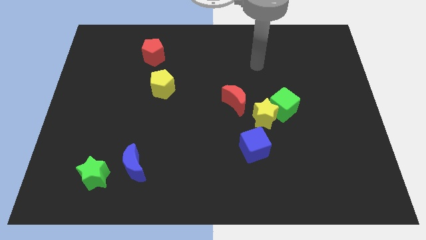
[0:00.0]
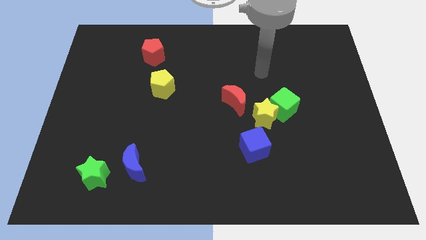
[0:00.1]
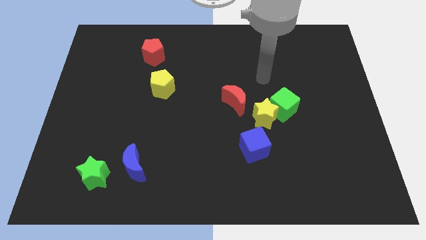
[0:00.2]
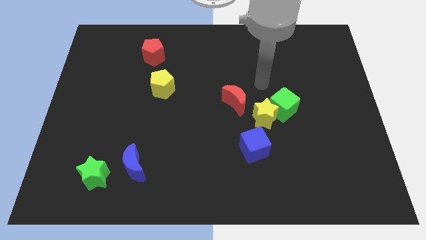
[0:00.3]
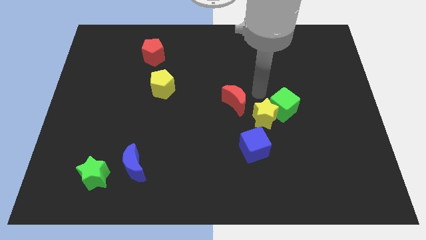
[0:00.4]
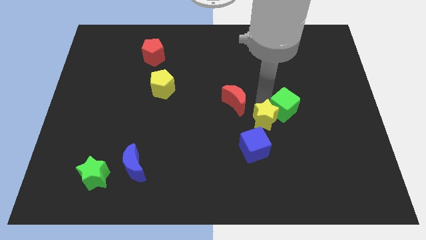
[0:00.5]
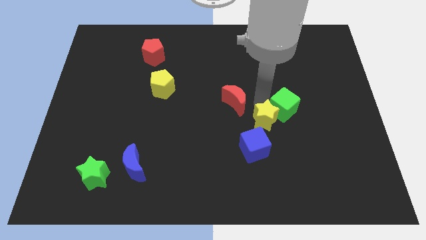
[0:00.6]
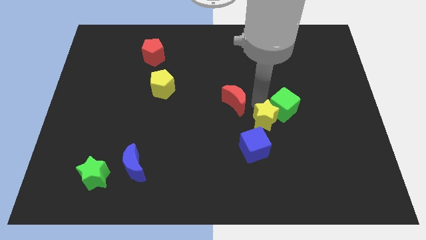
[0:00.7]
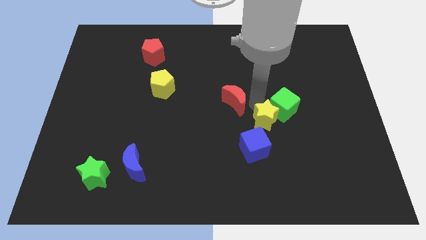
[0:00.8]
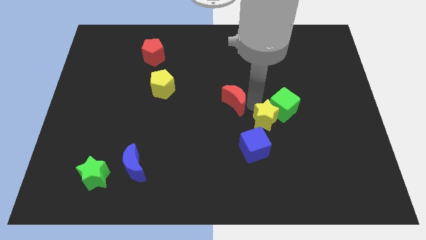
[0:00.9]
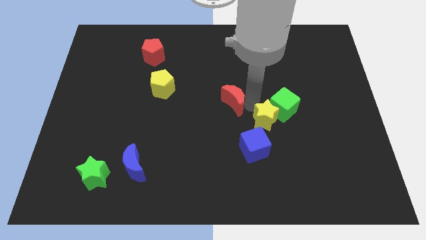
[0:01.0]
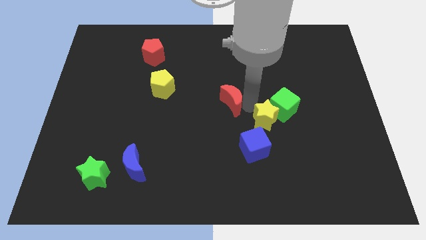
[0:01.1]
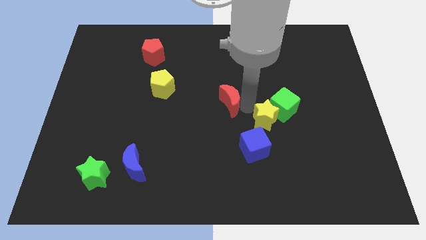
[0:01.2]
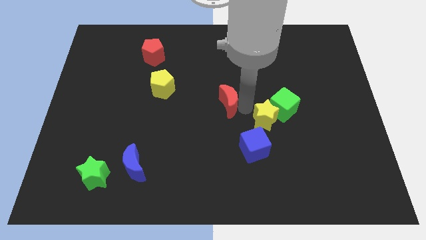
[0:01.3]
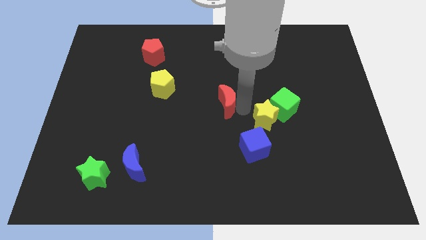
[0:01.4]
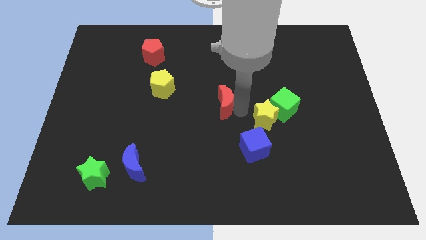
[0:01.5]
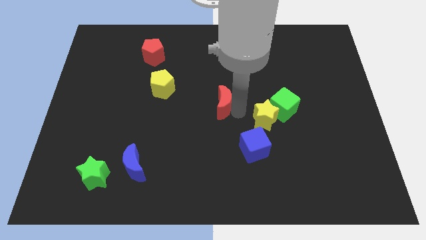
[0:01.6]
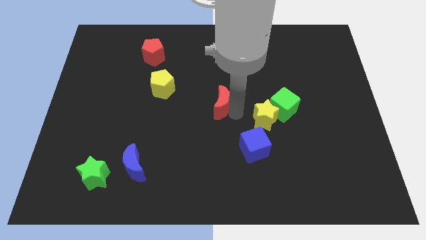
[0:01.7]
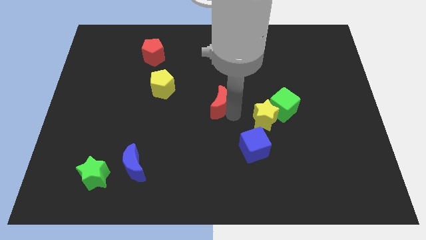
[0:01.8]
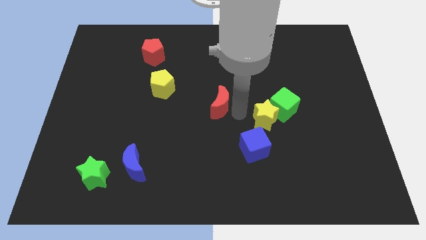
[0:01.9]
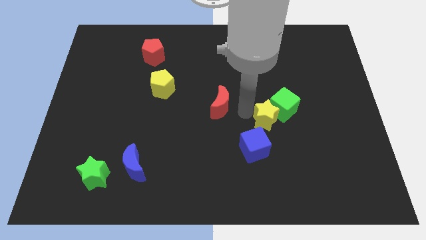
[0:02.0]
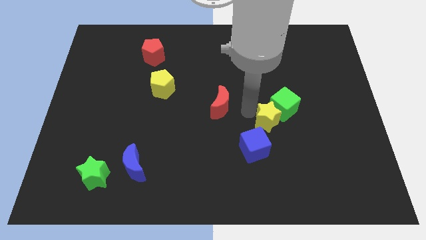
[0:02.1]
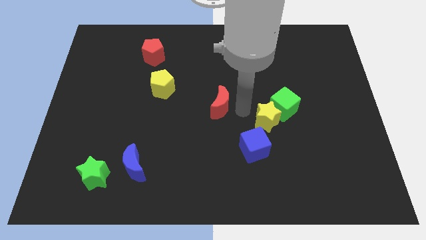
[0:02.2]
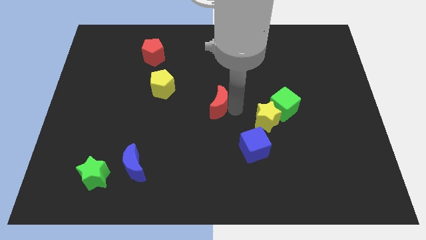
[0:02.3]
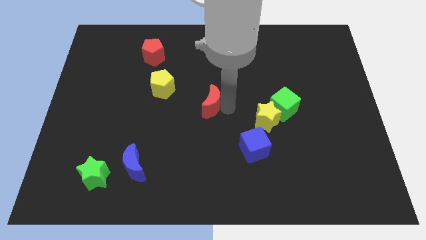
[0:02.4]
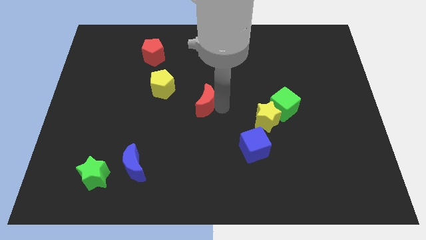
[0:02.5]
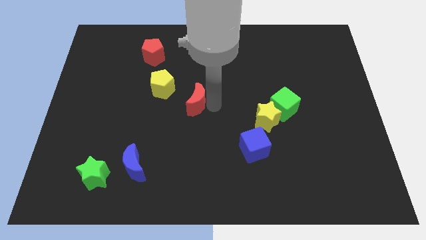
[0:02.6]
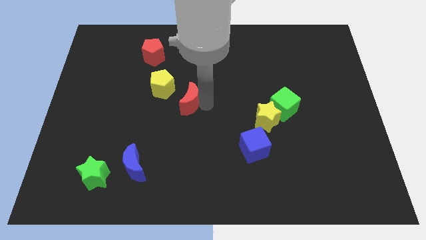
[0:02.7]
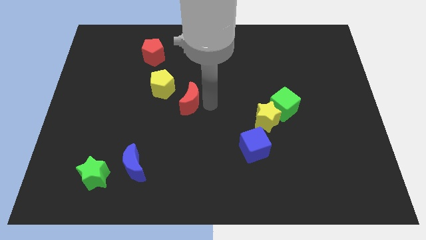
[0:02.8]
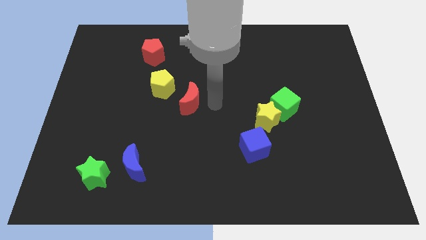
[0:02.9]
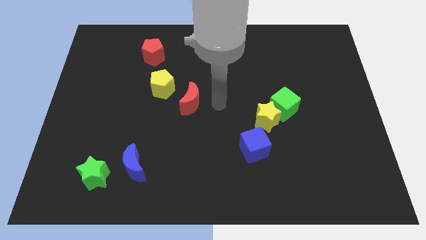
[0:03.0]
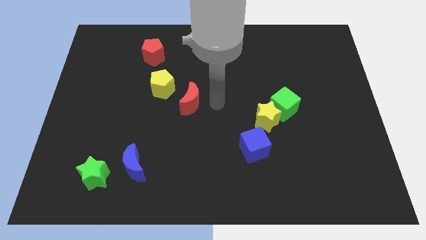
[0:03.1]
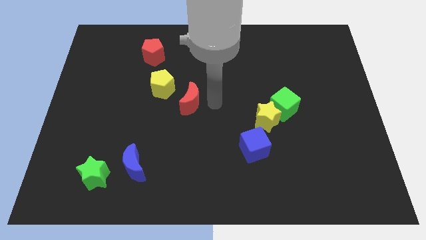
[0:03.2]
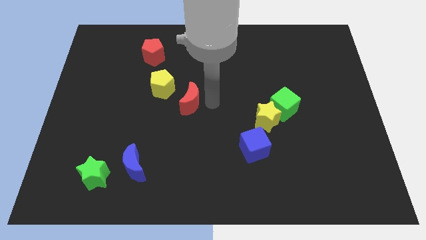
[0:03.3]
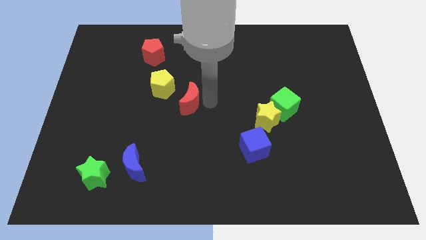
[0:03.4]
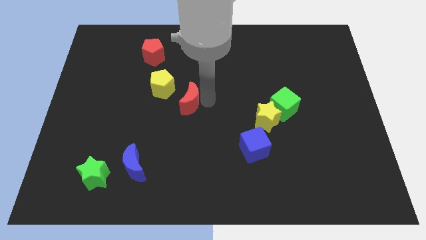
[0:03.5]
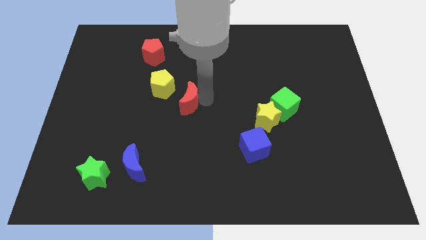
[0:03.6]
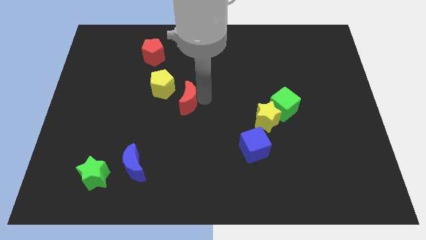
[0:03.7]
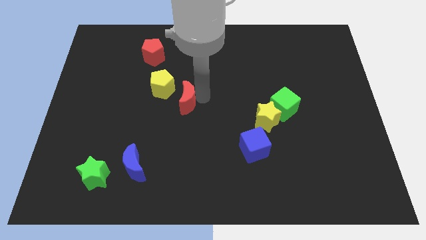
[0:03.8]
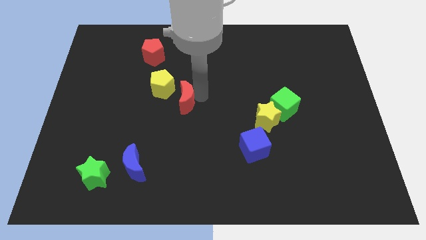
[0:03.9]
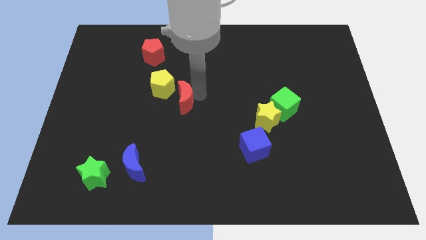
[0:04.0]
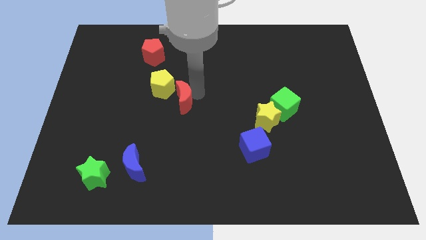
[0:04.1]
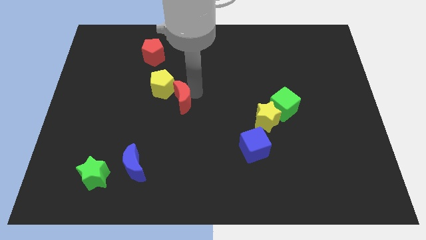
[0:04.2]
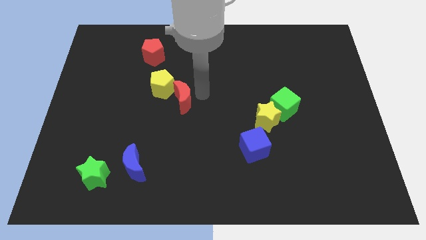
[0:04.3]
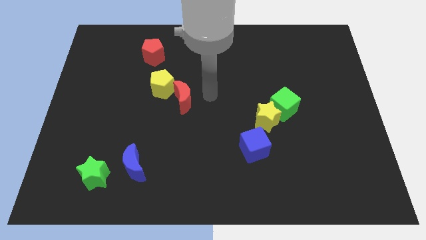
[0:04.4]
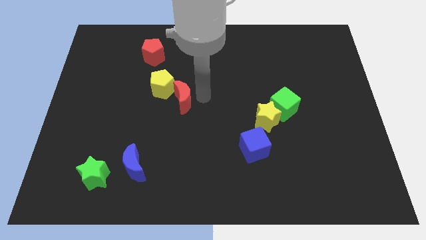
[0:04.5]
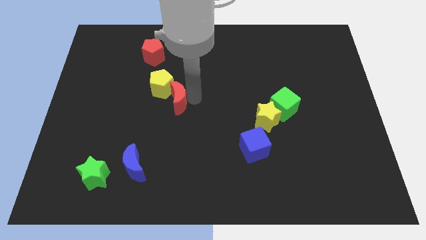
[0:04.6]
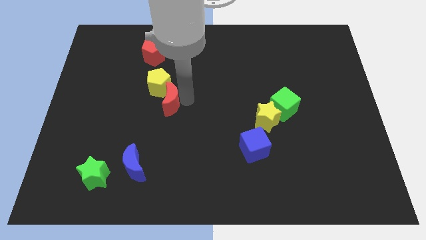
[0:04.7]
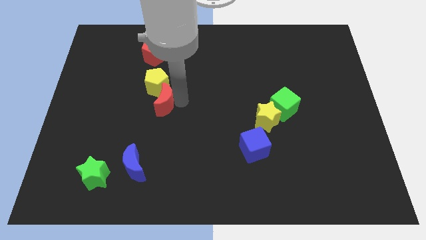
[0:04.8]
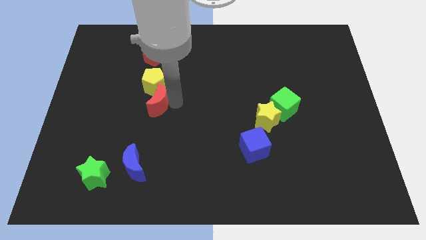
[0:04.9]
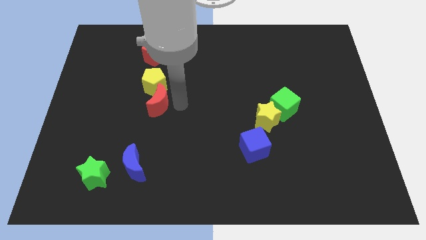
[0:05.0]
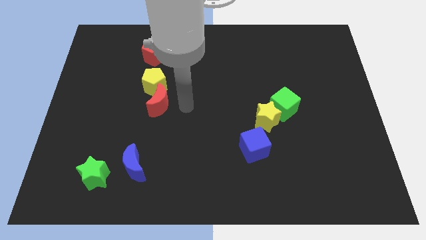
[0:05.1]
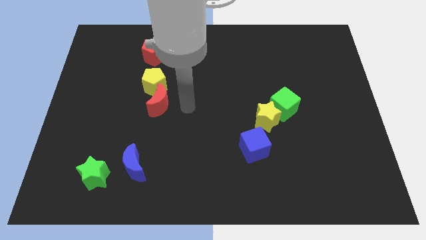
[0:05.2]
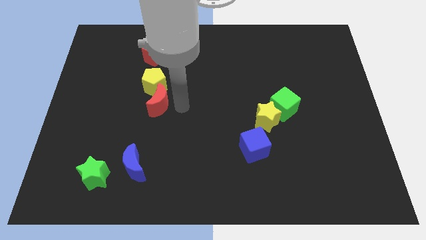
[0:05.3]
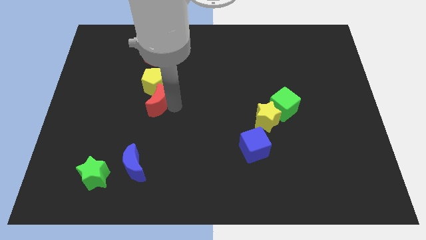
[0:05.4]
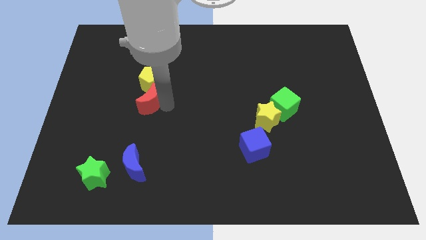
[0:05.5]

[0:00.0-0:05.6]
slide the red moon left

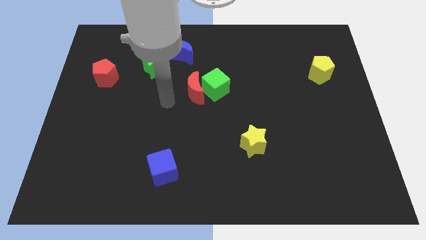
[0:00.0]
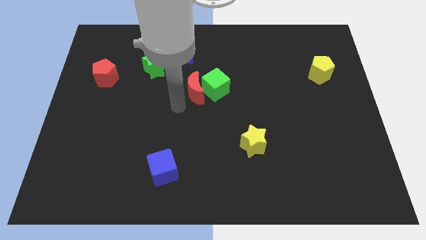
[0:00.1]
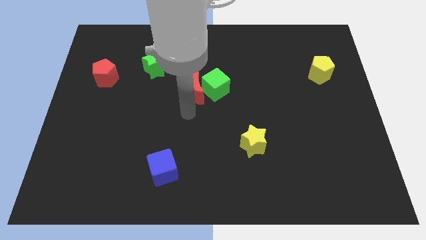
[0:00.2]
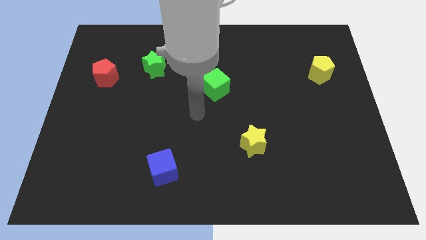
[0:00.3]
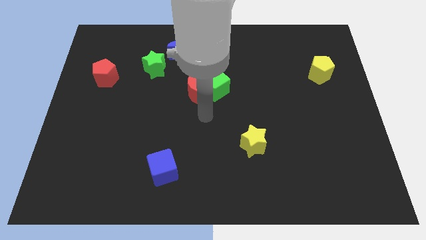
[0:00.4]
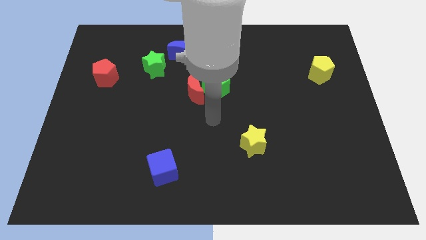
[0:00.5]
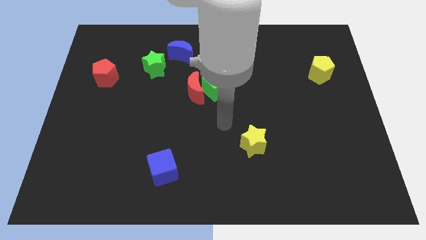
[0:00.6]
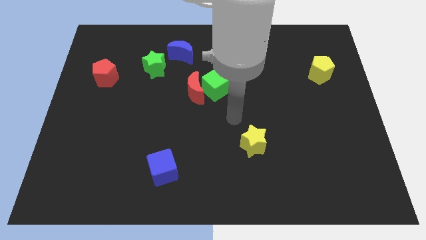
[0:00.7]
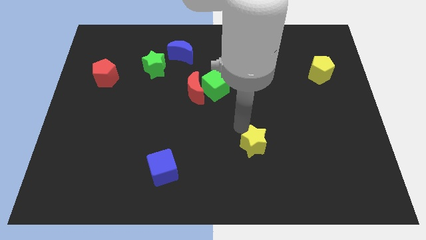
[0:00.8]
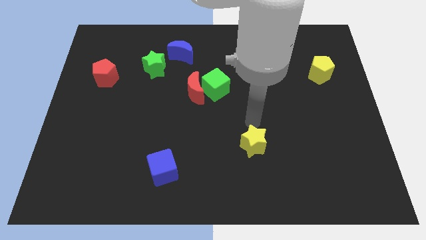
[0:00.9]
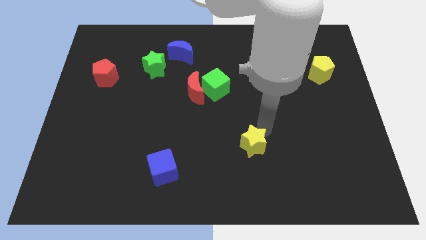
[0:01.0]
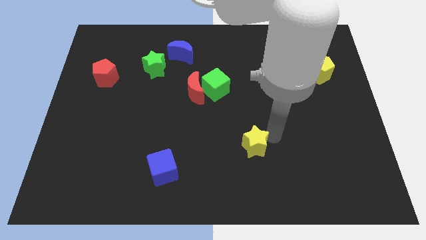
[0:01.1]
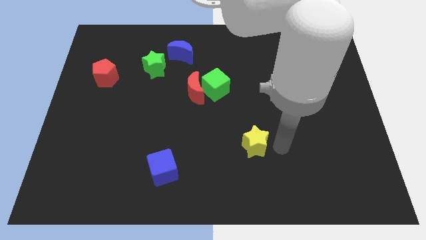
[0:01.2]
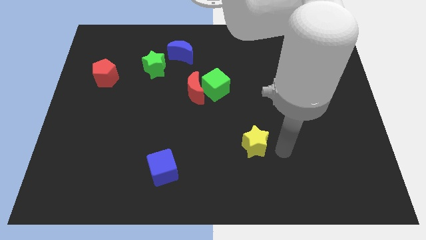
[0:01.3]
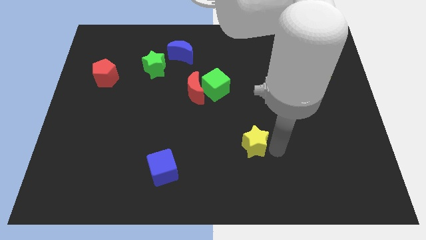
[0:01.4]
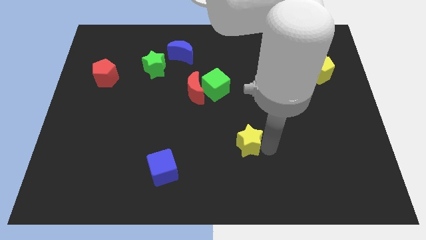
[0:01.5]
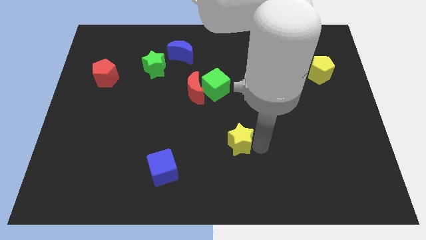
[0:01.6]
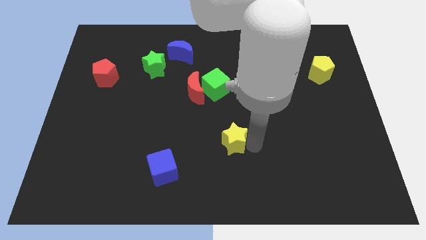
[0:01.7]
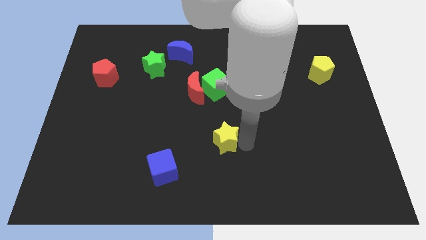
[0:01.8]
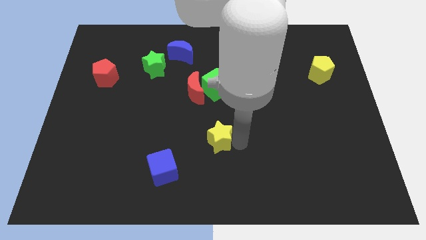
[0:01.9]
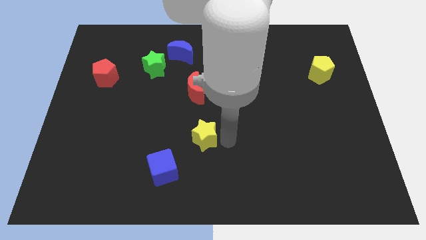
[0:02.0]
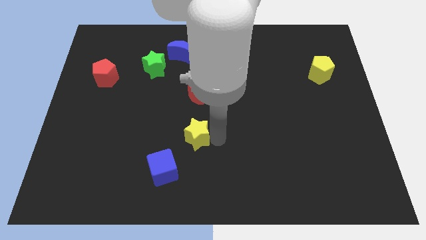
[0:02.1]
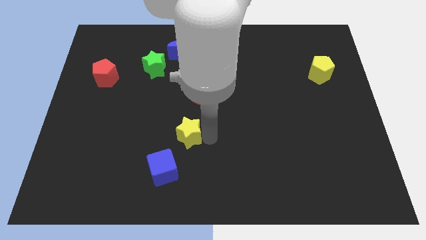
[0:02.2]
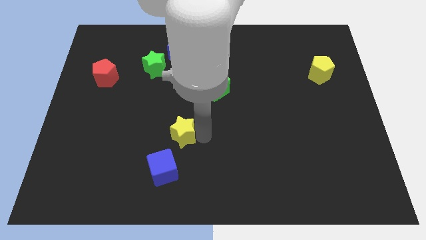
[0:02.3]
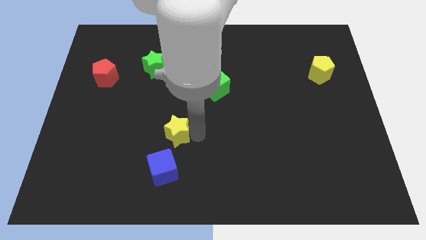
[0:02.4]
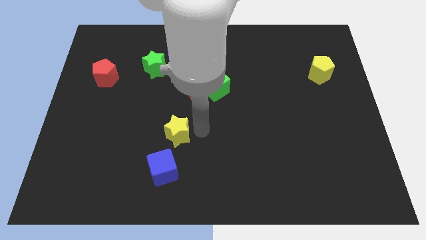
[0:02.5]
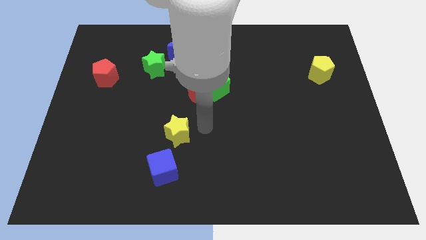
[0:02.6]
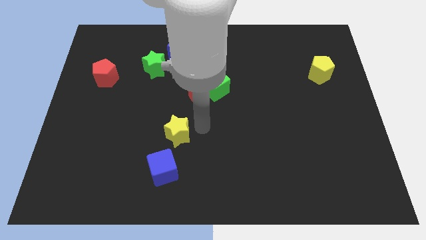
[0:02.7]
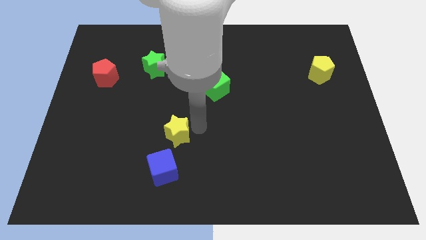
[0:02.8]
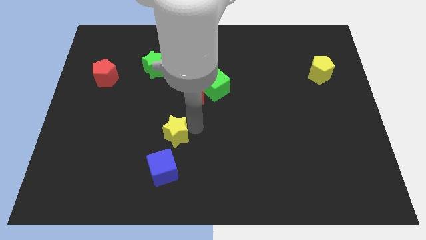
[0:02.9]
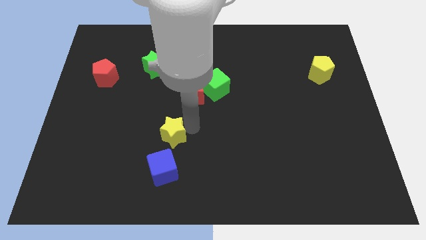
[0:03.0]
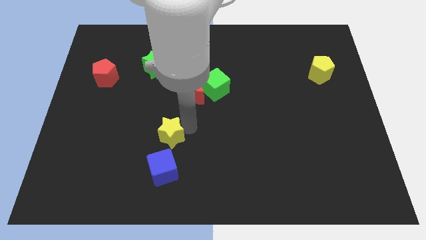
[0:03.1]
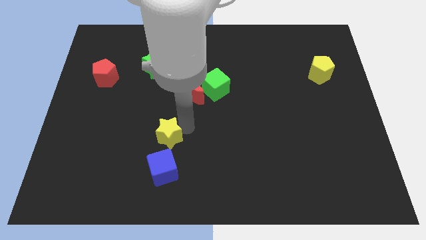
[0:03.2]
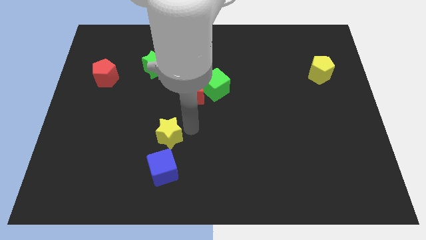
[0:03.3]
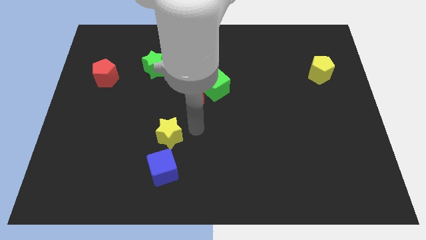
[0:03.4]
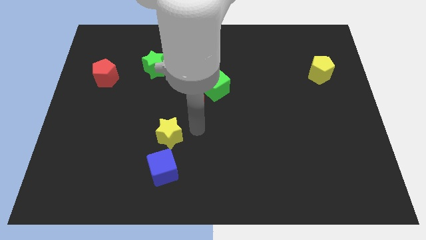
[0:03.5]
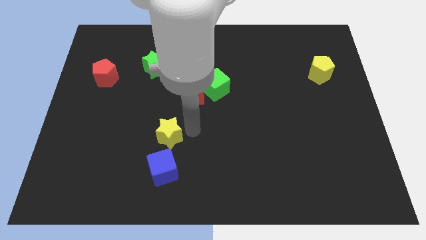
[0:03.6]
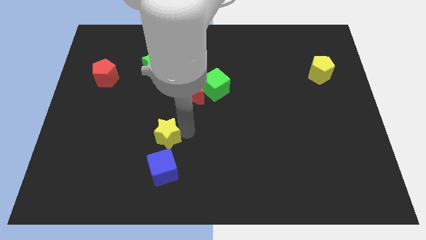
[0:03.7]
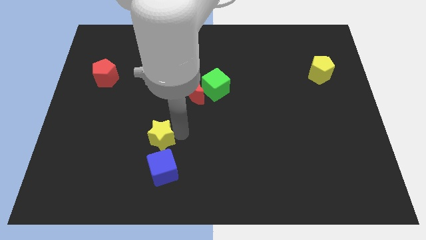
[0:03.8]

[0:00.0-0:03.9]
move the yellow star left
